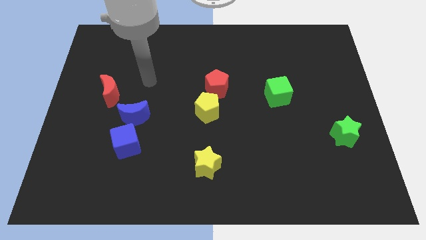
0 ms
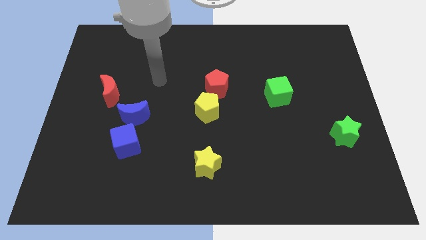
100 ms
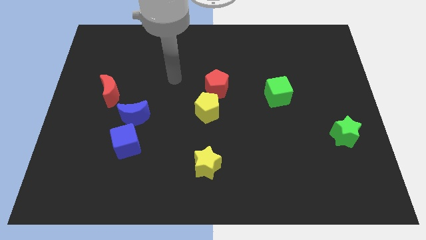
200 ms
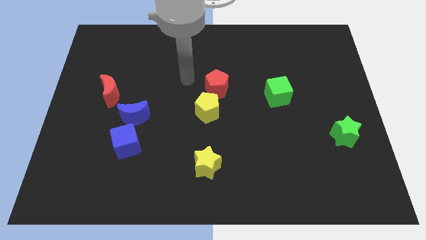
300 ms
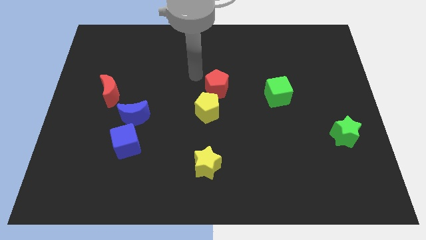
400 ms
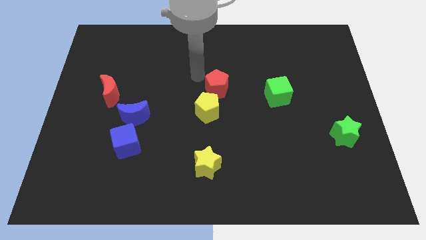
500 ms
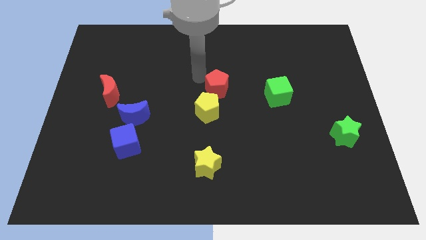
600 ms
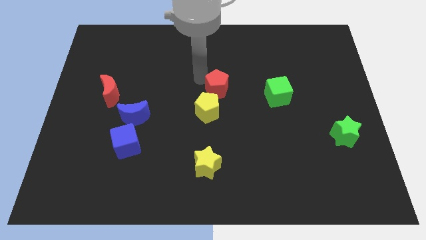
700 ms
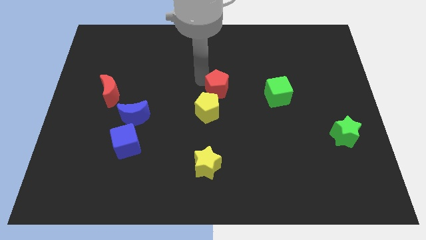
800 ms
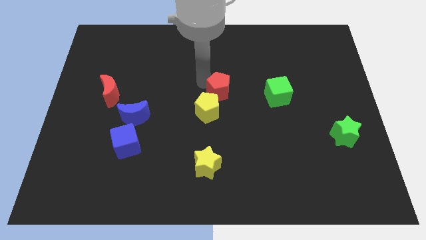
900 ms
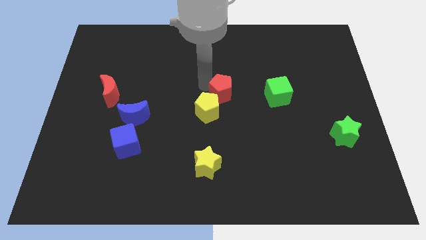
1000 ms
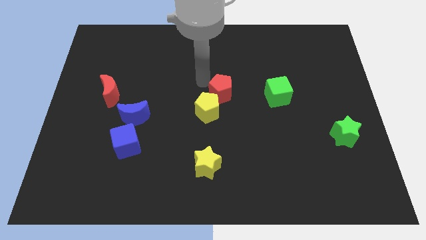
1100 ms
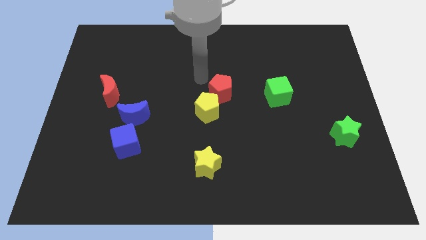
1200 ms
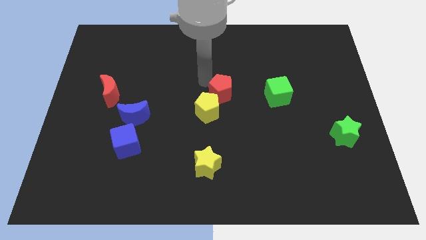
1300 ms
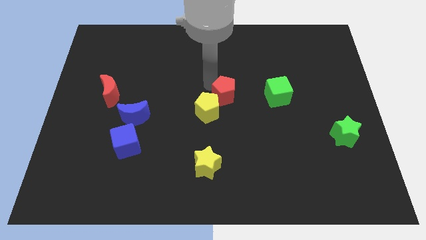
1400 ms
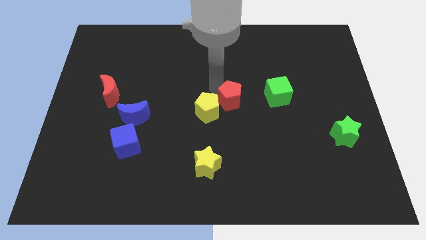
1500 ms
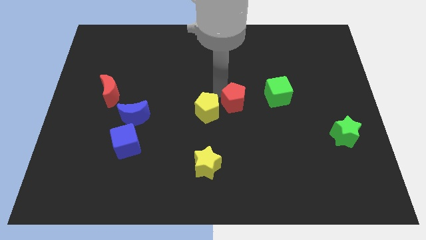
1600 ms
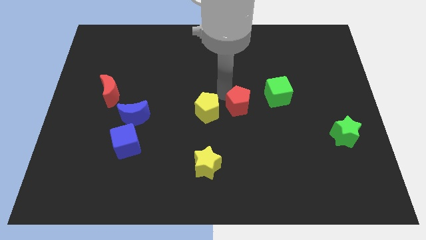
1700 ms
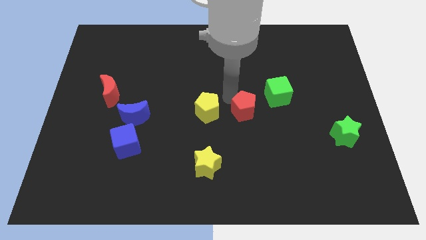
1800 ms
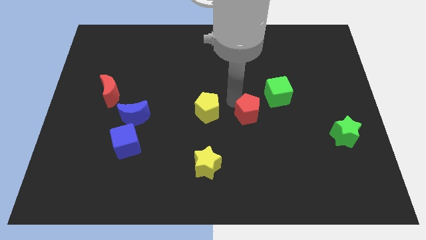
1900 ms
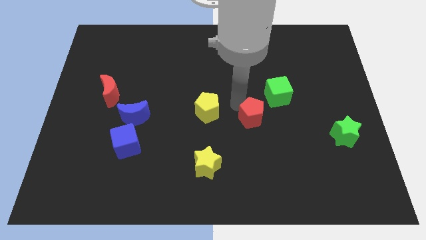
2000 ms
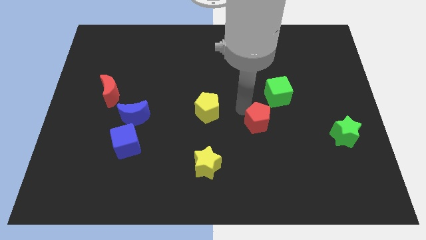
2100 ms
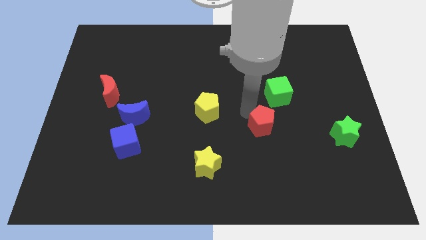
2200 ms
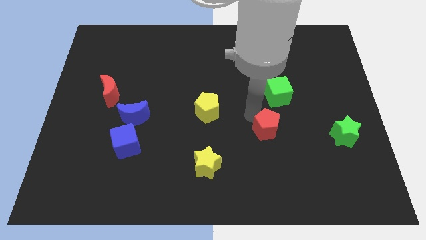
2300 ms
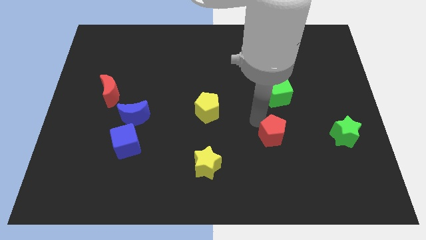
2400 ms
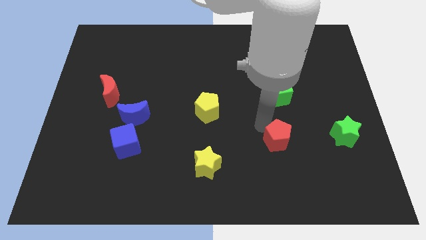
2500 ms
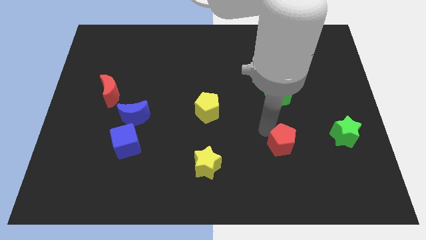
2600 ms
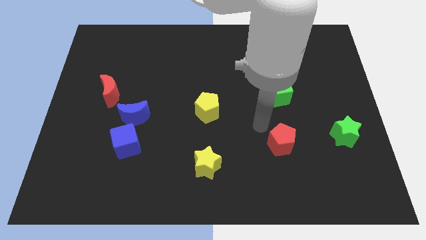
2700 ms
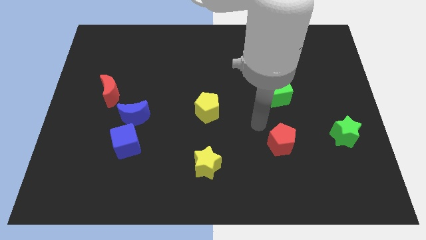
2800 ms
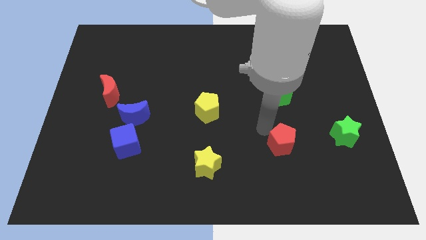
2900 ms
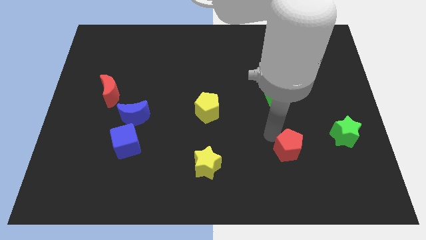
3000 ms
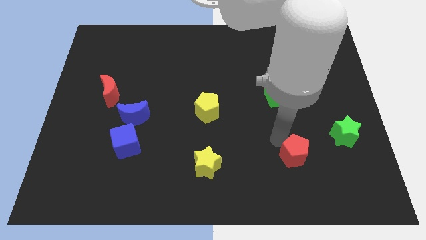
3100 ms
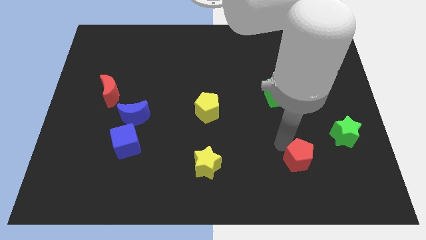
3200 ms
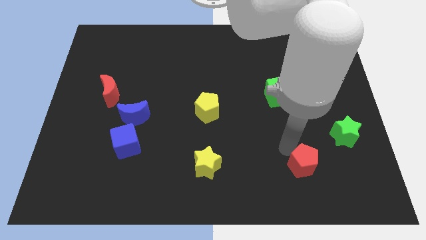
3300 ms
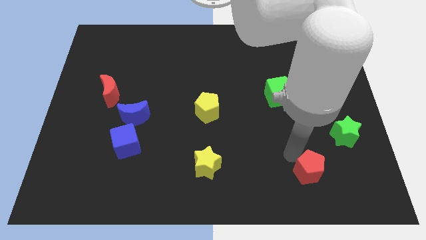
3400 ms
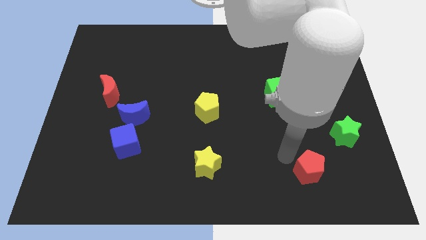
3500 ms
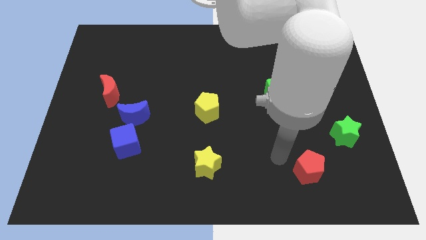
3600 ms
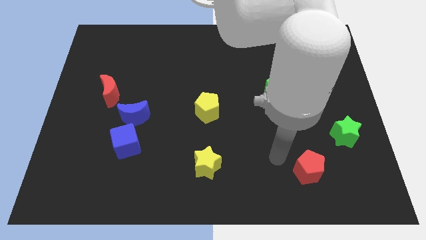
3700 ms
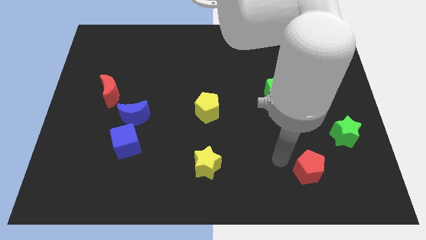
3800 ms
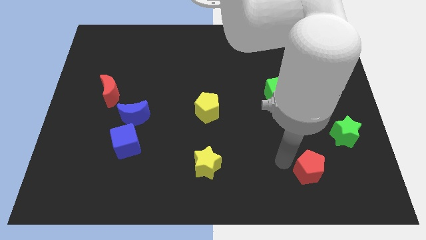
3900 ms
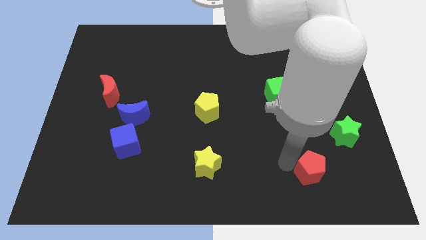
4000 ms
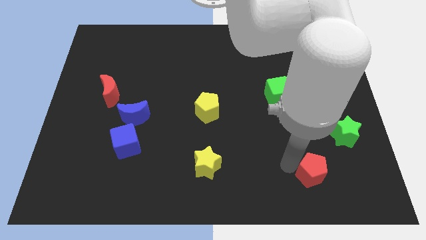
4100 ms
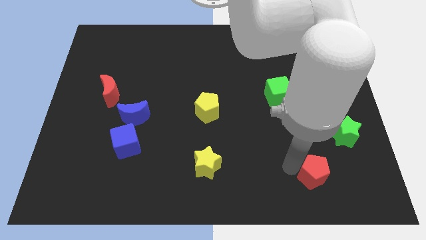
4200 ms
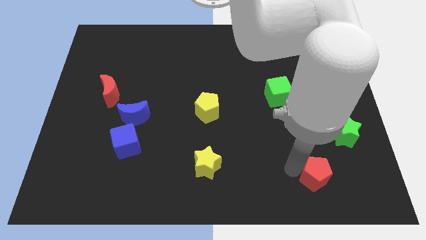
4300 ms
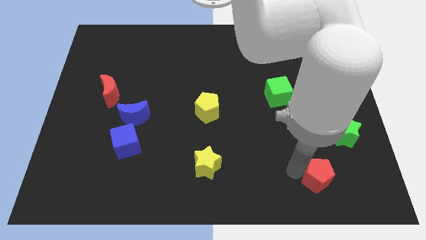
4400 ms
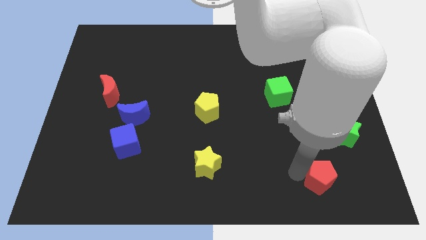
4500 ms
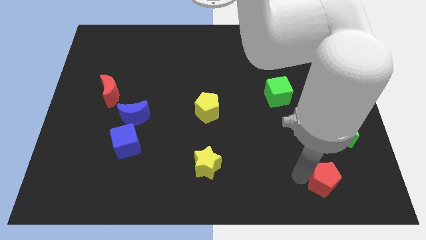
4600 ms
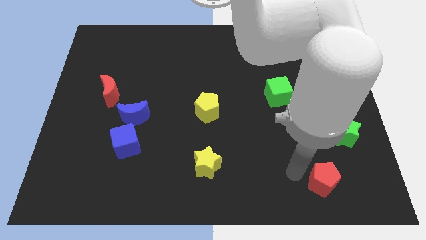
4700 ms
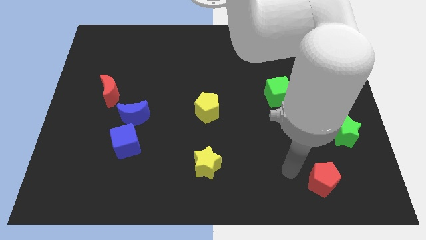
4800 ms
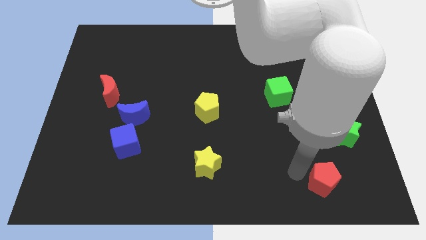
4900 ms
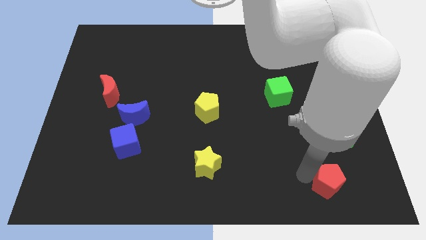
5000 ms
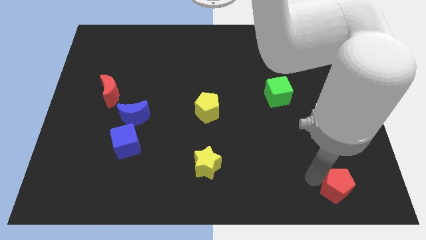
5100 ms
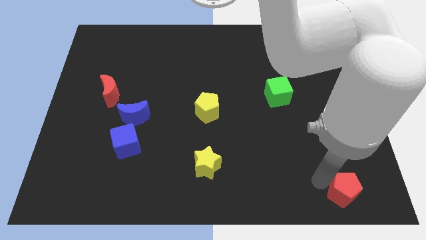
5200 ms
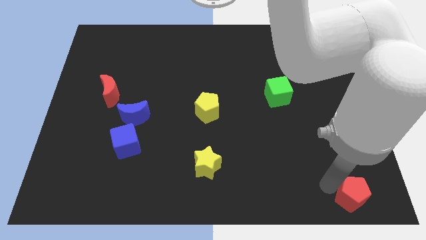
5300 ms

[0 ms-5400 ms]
put the red pentagon to the bottom right corner
